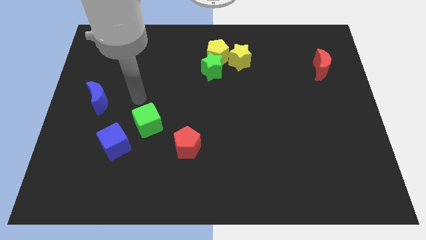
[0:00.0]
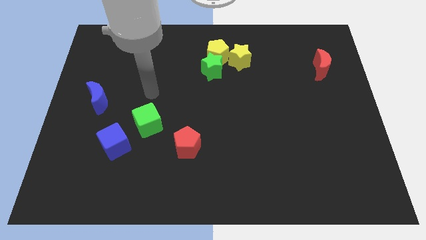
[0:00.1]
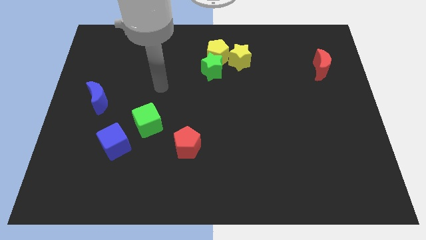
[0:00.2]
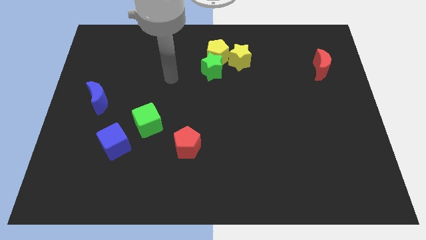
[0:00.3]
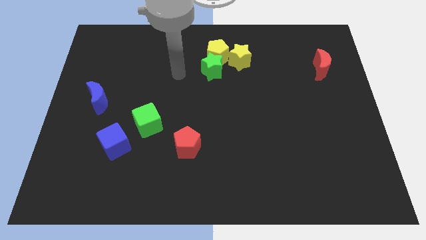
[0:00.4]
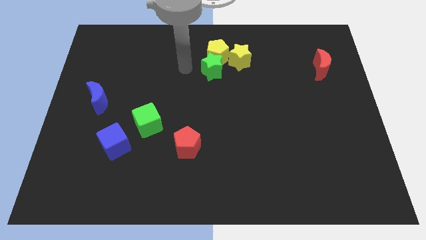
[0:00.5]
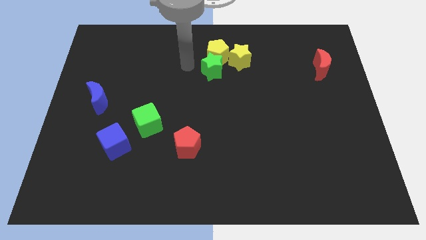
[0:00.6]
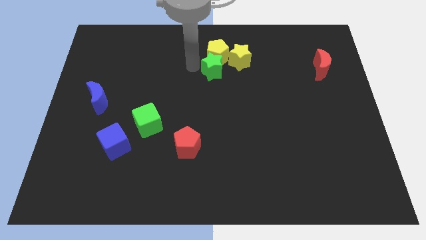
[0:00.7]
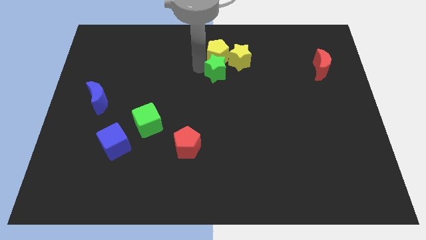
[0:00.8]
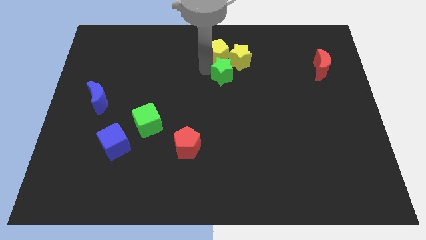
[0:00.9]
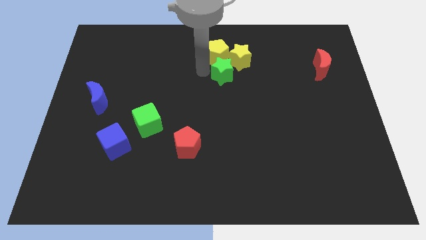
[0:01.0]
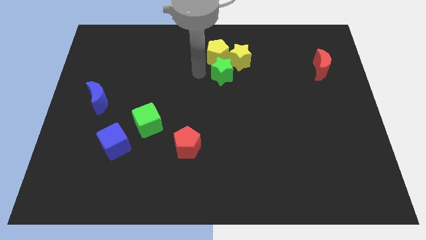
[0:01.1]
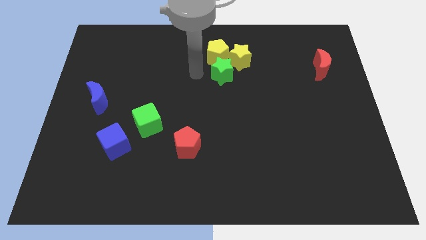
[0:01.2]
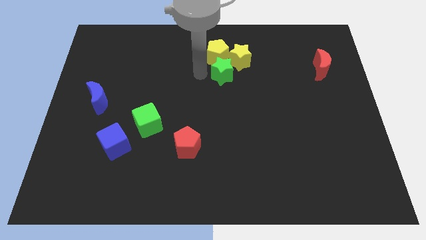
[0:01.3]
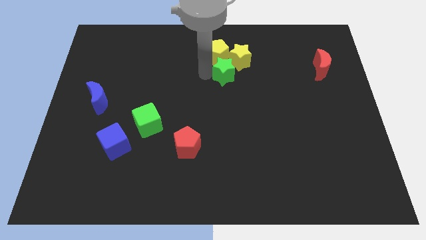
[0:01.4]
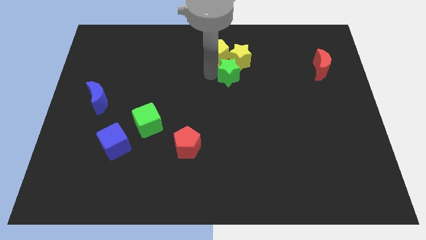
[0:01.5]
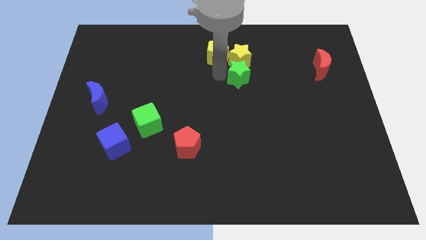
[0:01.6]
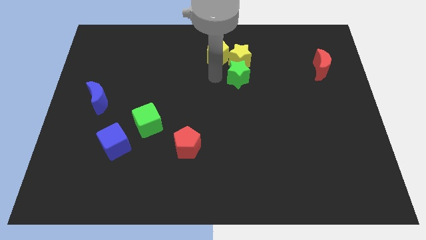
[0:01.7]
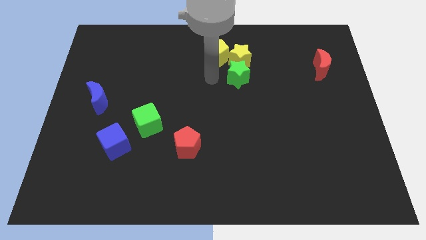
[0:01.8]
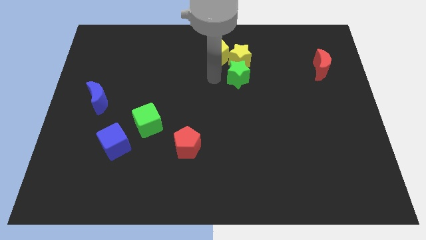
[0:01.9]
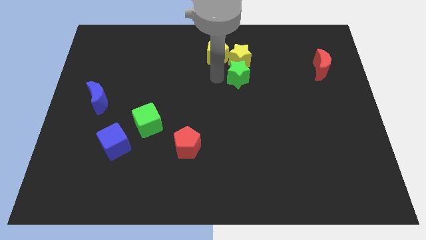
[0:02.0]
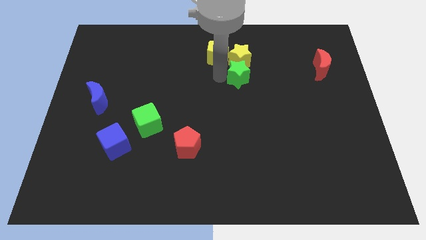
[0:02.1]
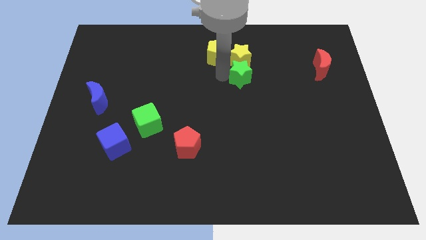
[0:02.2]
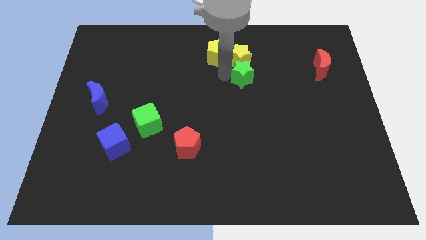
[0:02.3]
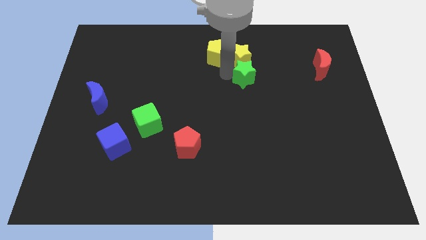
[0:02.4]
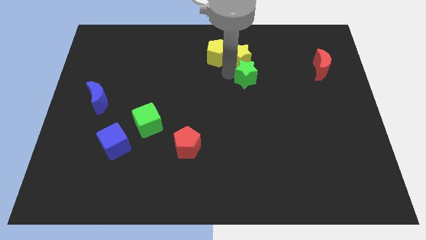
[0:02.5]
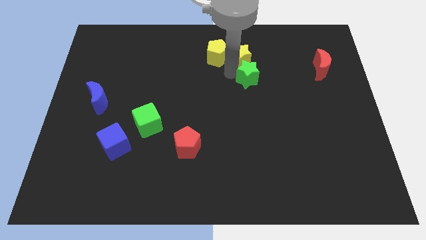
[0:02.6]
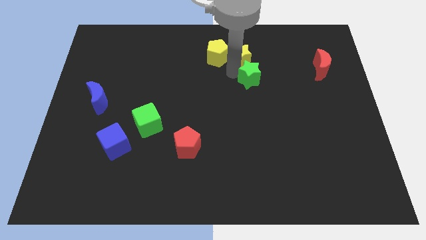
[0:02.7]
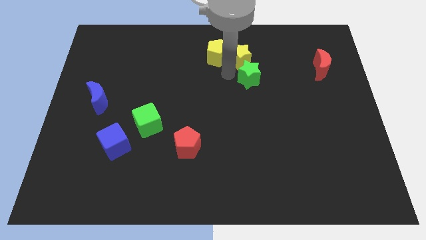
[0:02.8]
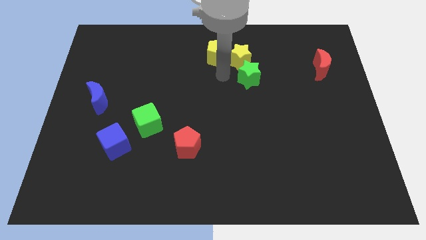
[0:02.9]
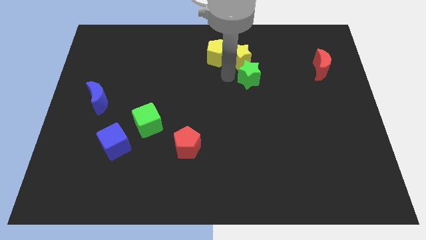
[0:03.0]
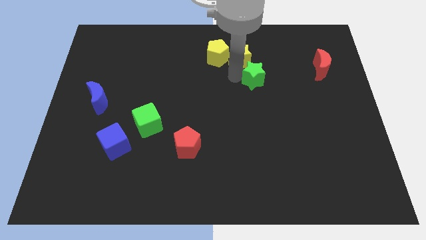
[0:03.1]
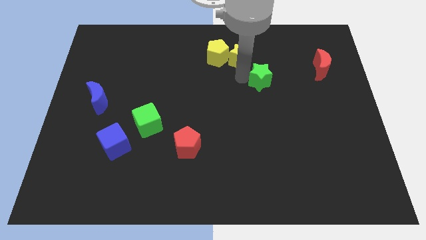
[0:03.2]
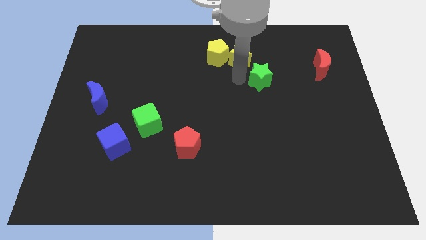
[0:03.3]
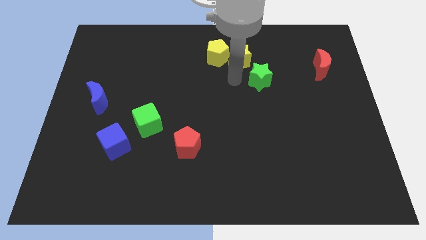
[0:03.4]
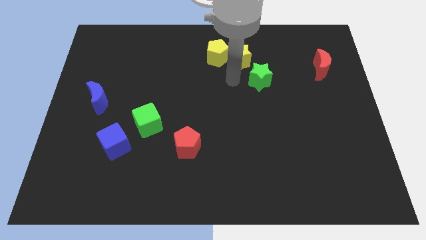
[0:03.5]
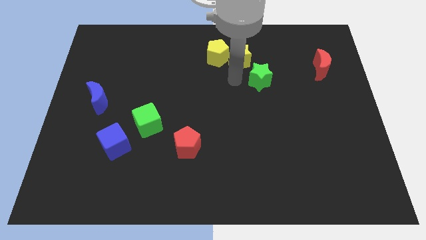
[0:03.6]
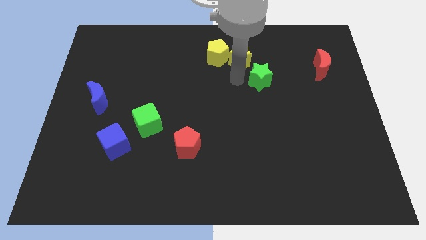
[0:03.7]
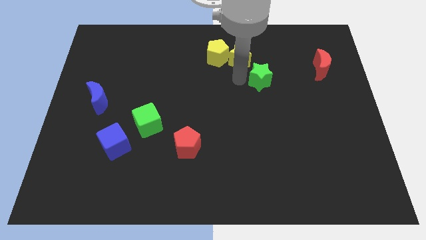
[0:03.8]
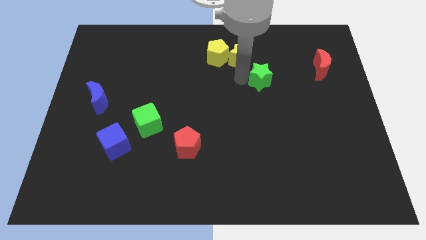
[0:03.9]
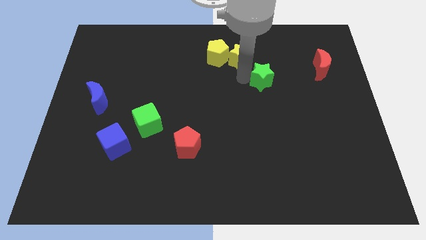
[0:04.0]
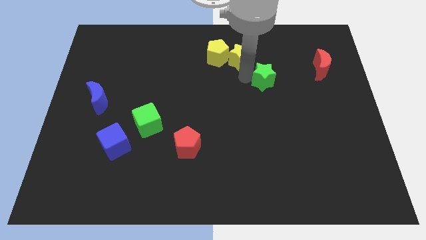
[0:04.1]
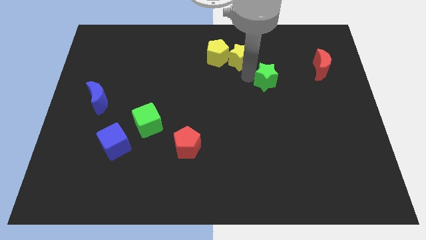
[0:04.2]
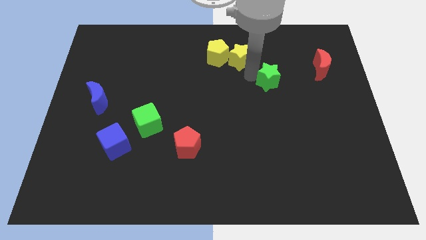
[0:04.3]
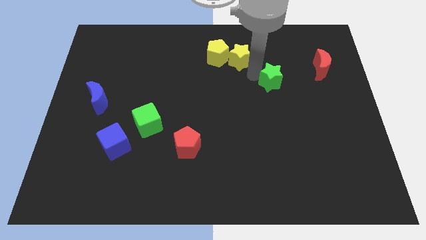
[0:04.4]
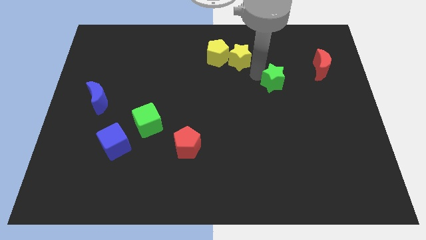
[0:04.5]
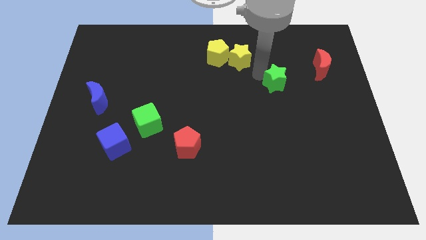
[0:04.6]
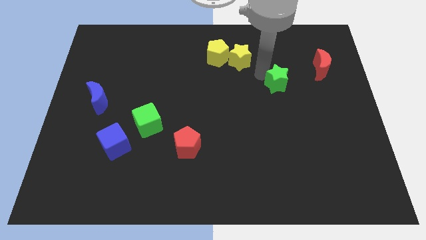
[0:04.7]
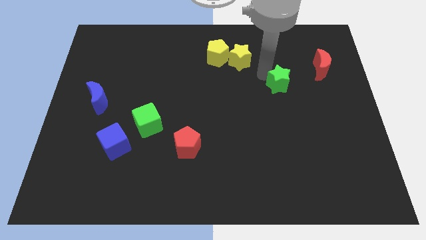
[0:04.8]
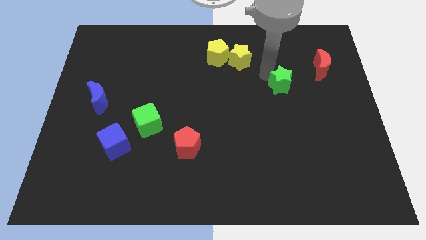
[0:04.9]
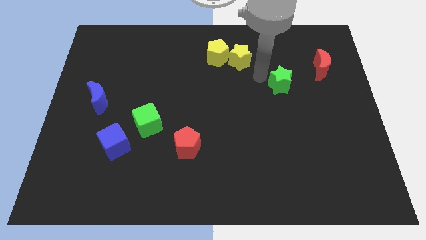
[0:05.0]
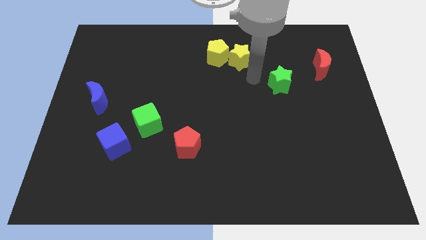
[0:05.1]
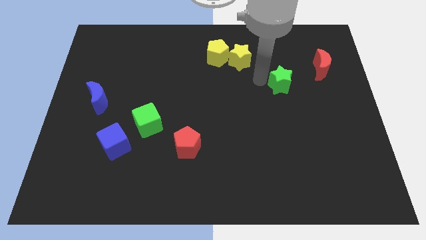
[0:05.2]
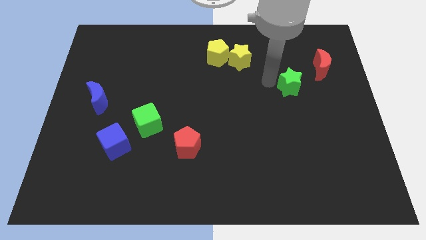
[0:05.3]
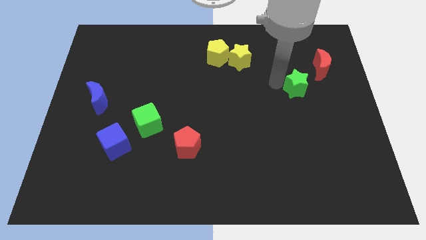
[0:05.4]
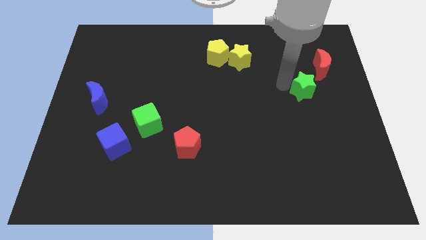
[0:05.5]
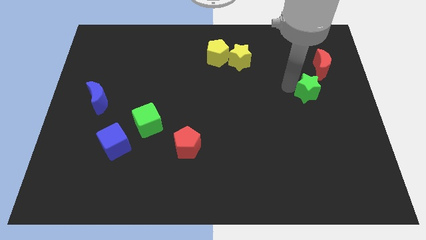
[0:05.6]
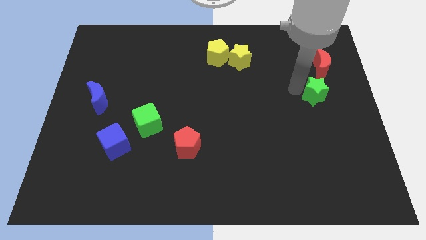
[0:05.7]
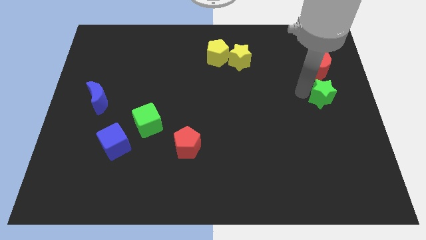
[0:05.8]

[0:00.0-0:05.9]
push the green star to the right side
